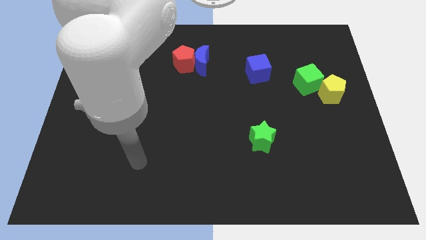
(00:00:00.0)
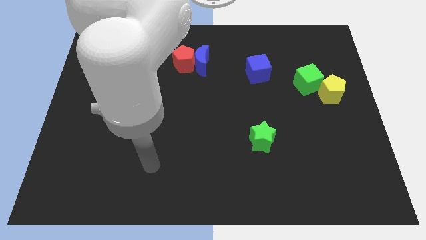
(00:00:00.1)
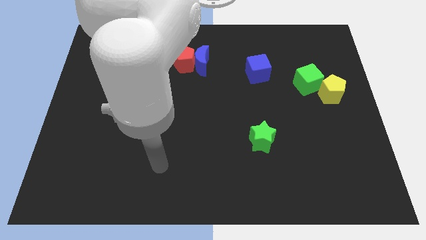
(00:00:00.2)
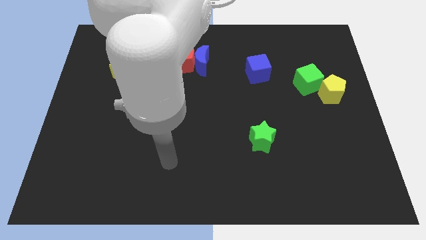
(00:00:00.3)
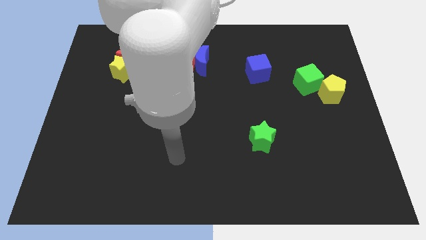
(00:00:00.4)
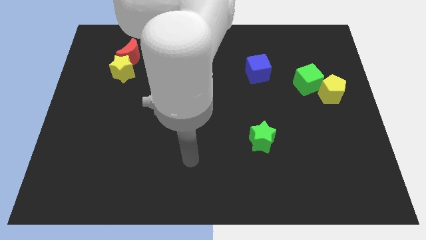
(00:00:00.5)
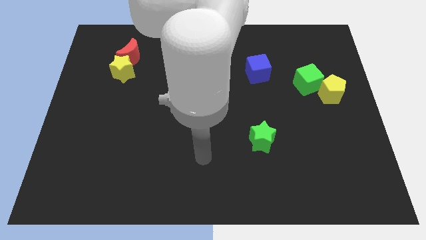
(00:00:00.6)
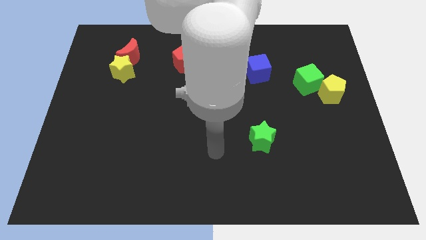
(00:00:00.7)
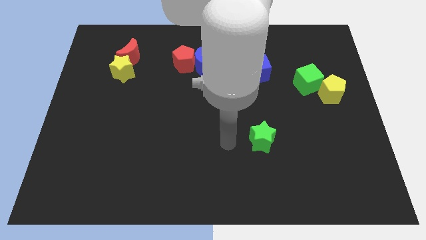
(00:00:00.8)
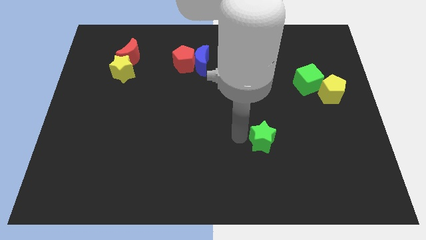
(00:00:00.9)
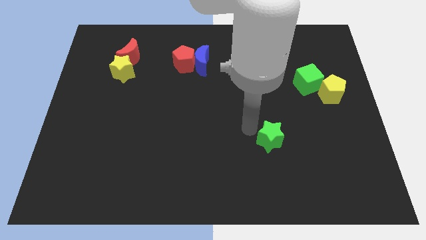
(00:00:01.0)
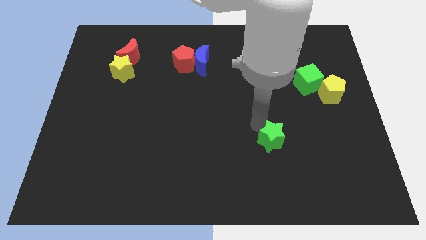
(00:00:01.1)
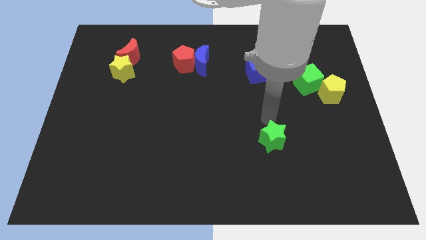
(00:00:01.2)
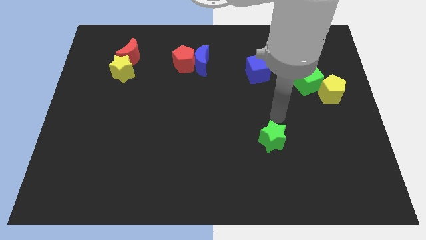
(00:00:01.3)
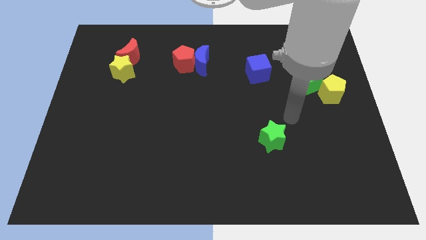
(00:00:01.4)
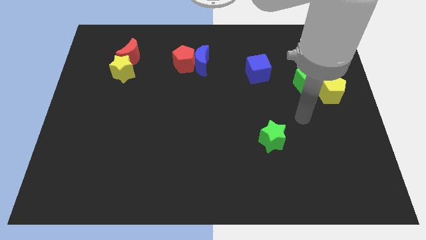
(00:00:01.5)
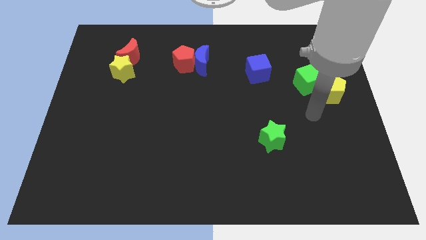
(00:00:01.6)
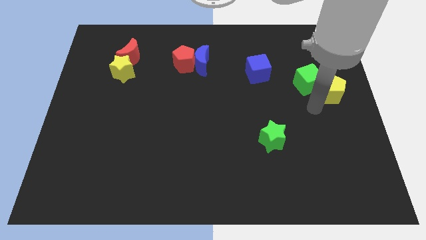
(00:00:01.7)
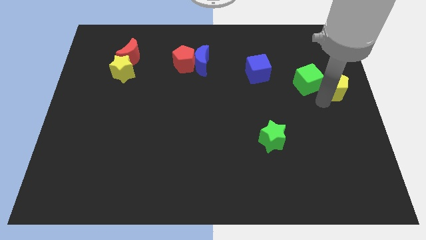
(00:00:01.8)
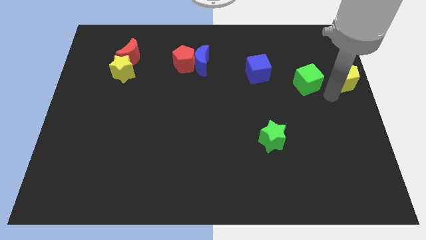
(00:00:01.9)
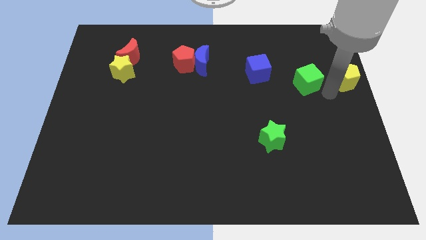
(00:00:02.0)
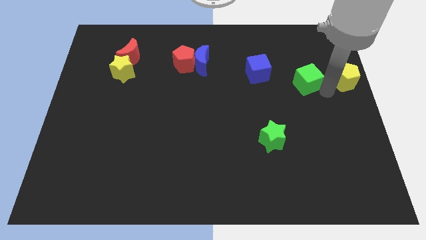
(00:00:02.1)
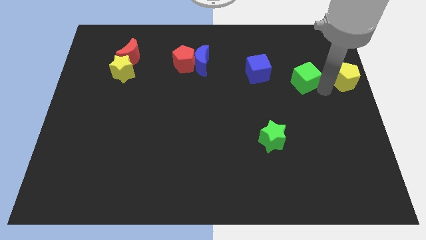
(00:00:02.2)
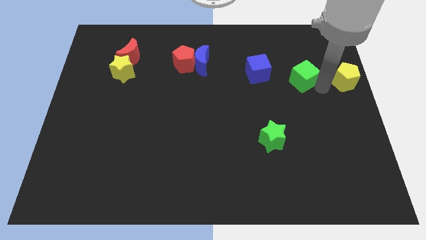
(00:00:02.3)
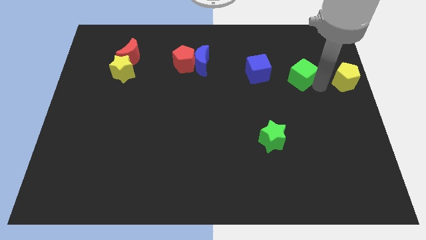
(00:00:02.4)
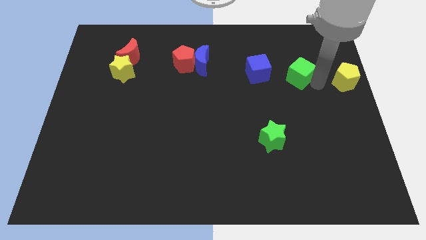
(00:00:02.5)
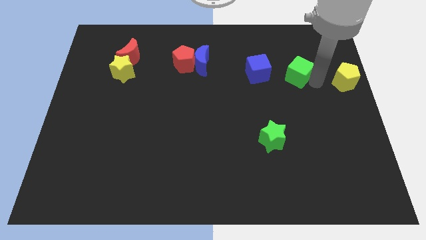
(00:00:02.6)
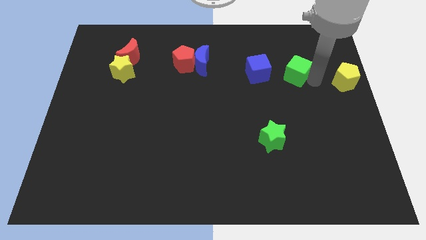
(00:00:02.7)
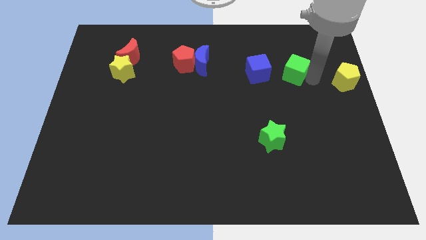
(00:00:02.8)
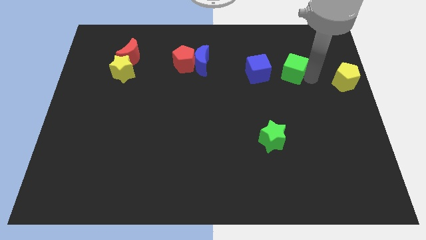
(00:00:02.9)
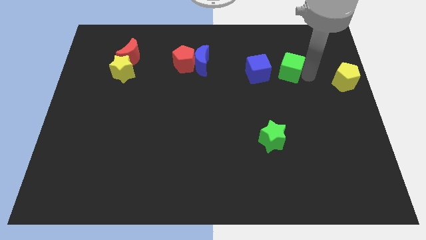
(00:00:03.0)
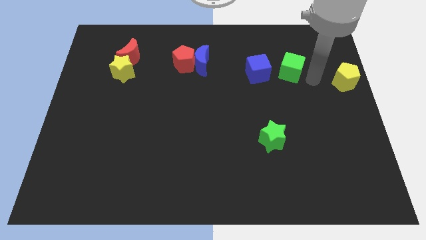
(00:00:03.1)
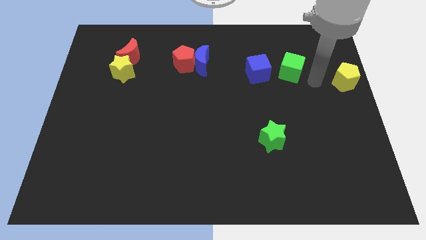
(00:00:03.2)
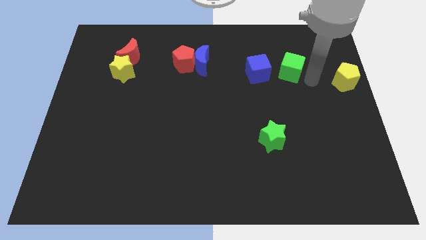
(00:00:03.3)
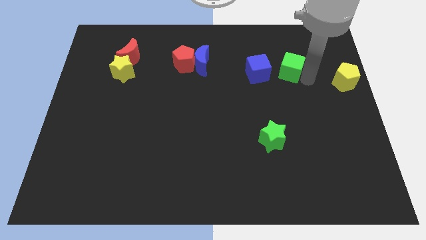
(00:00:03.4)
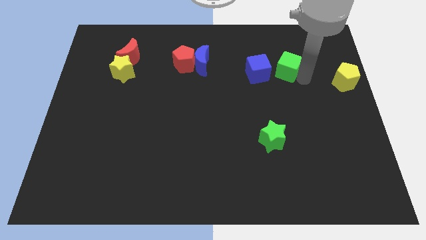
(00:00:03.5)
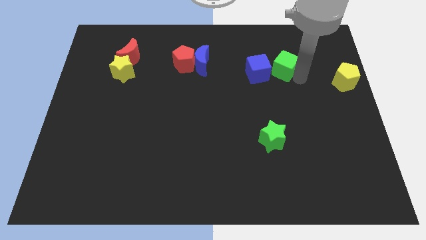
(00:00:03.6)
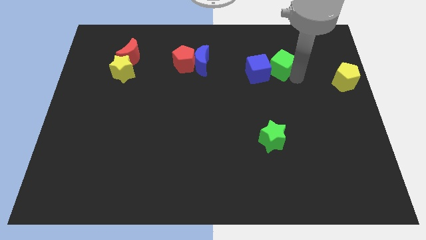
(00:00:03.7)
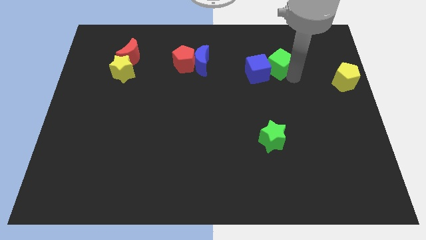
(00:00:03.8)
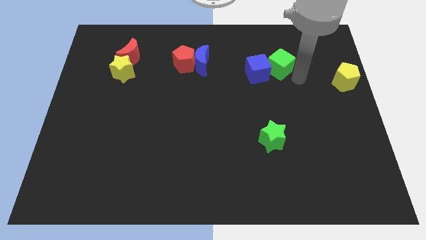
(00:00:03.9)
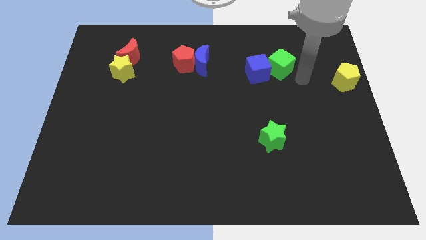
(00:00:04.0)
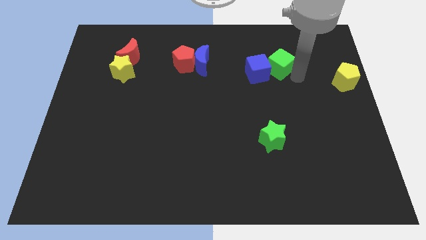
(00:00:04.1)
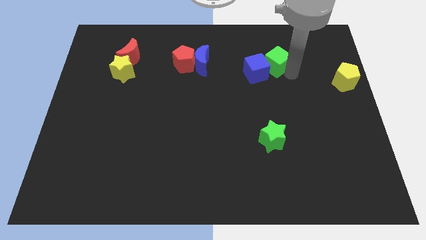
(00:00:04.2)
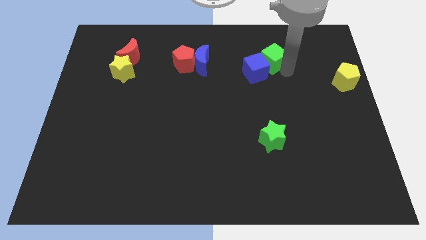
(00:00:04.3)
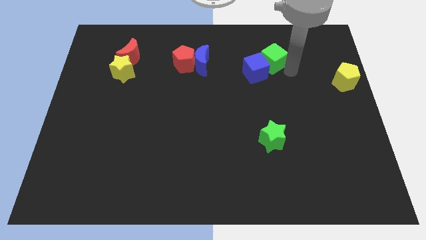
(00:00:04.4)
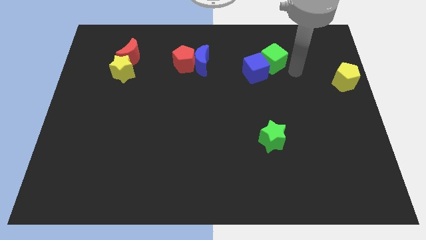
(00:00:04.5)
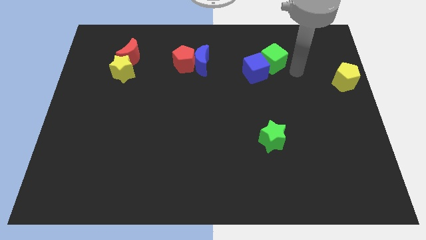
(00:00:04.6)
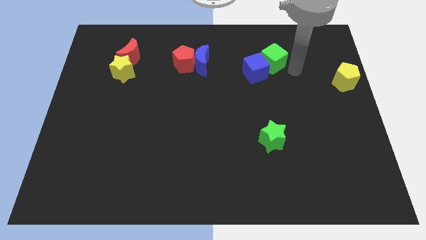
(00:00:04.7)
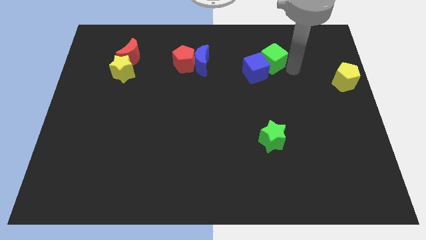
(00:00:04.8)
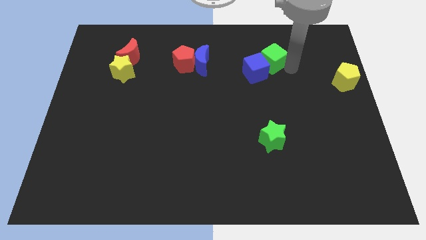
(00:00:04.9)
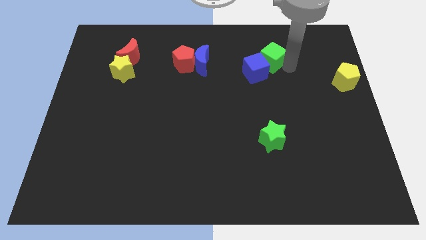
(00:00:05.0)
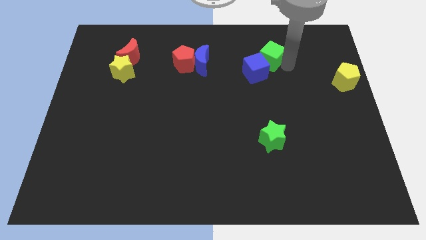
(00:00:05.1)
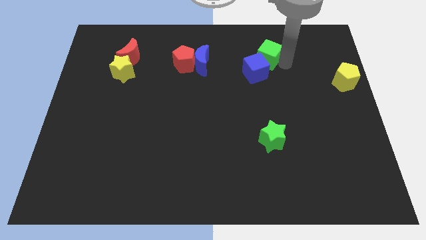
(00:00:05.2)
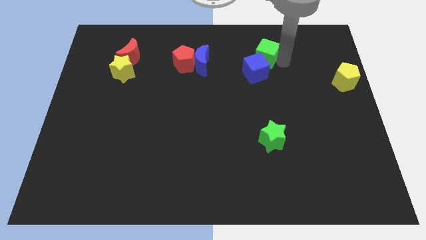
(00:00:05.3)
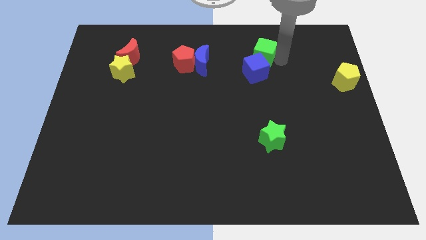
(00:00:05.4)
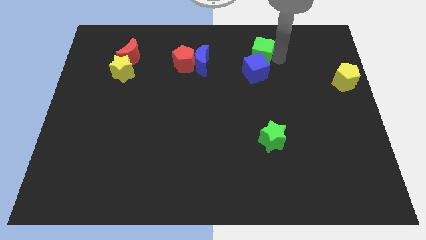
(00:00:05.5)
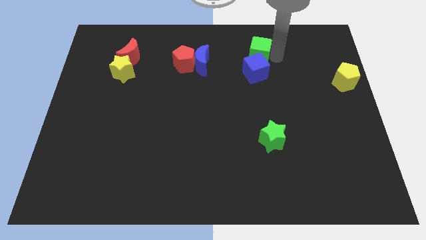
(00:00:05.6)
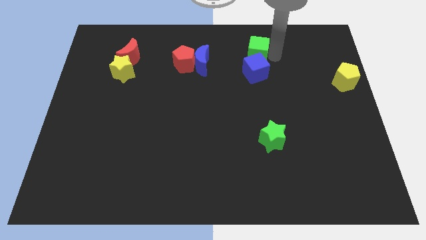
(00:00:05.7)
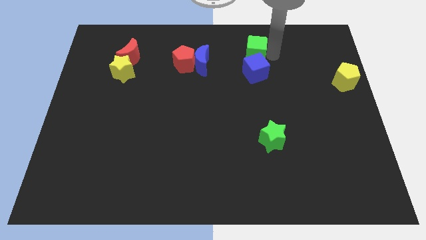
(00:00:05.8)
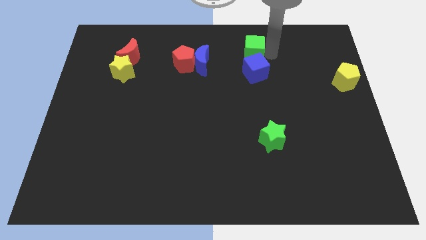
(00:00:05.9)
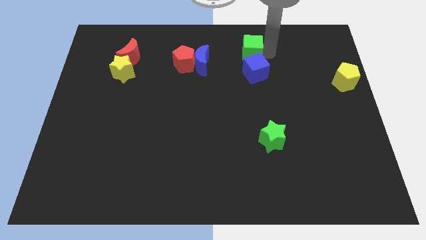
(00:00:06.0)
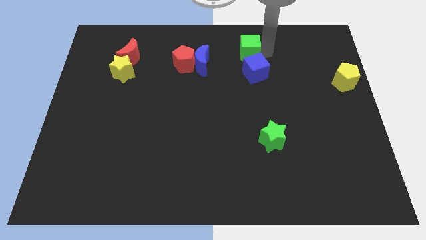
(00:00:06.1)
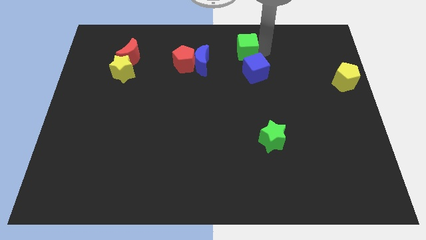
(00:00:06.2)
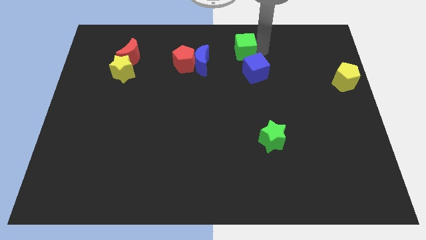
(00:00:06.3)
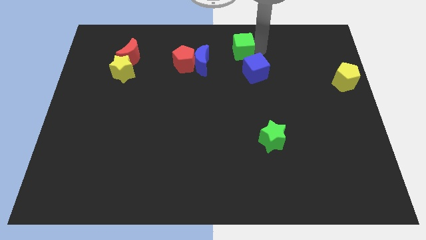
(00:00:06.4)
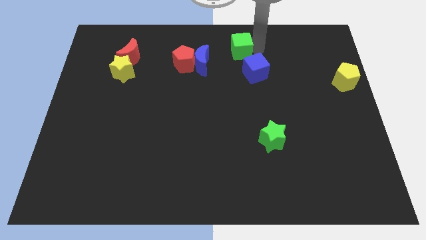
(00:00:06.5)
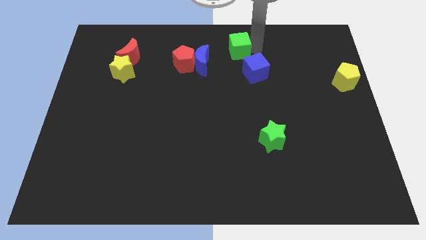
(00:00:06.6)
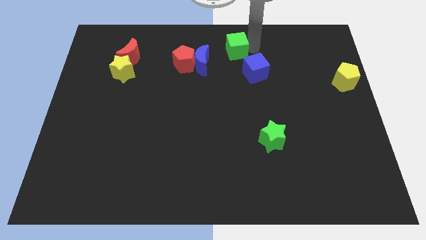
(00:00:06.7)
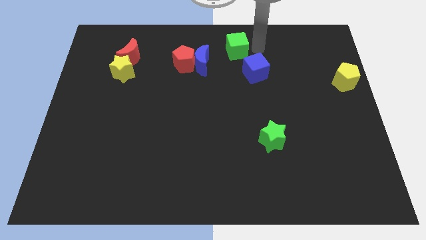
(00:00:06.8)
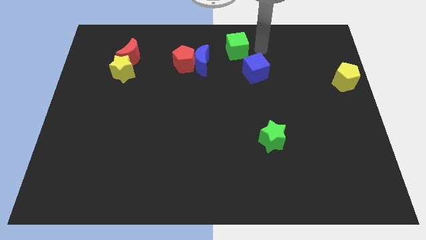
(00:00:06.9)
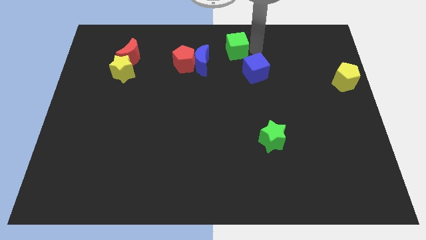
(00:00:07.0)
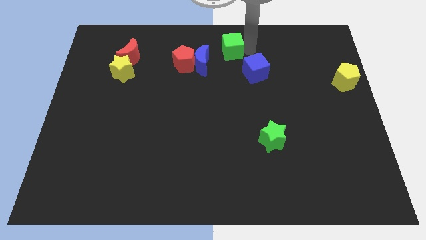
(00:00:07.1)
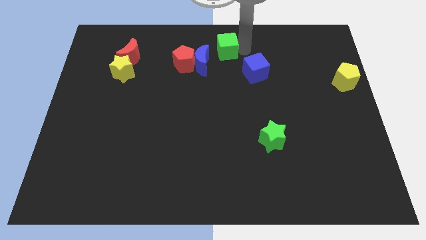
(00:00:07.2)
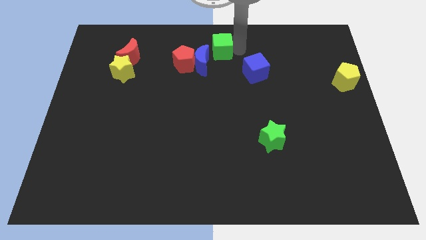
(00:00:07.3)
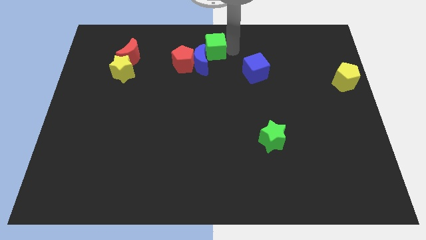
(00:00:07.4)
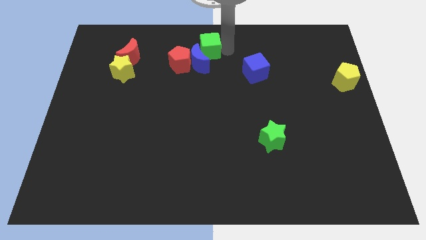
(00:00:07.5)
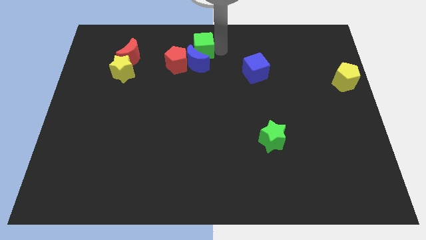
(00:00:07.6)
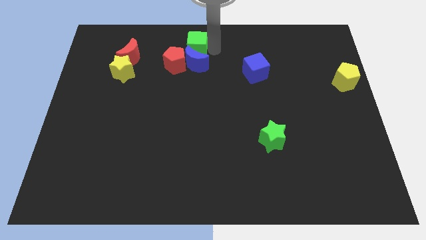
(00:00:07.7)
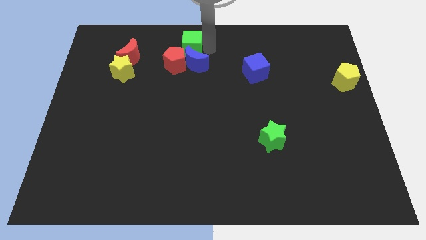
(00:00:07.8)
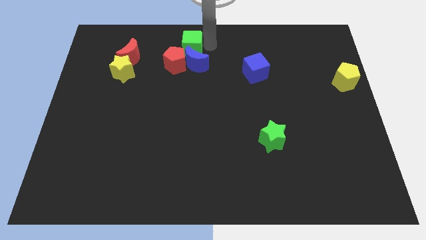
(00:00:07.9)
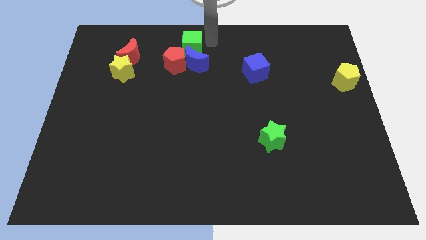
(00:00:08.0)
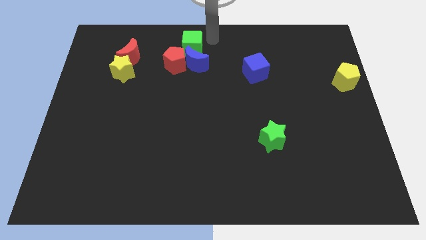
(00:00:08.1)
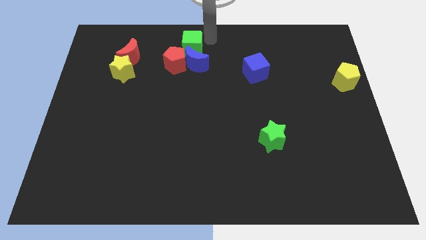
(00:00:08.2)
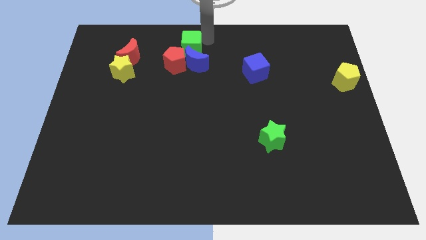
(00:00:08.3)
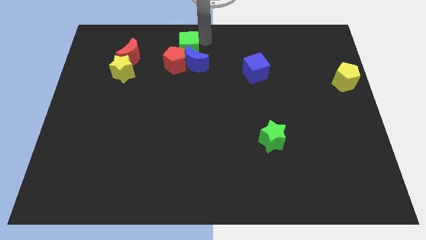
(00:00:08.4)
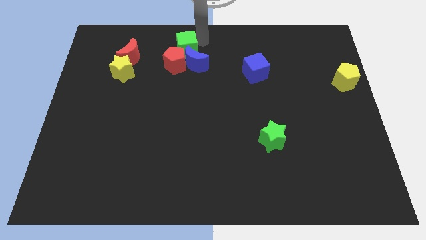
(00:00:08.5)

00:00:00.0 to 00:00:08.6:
move the green cube to the right side of the red moon
